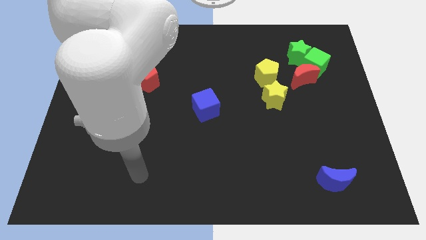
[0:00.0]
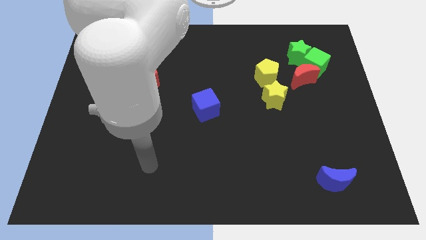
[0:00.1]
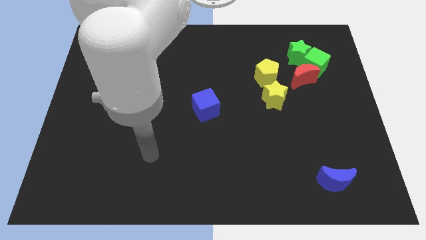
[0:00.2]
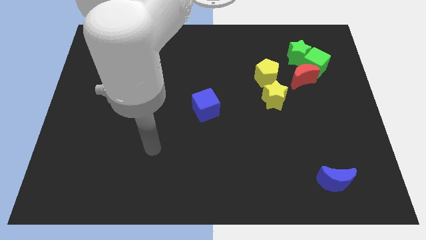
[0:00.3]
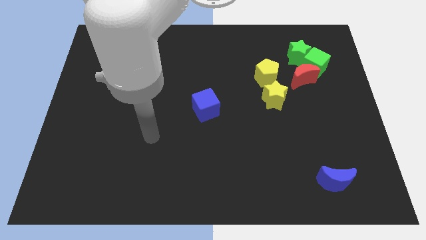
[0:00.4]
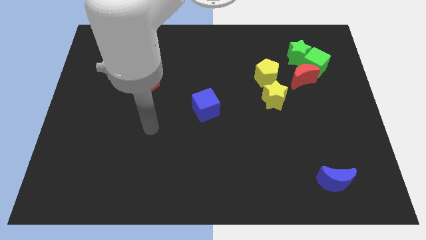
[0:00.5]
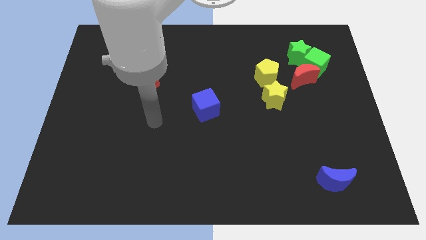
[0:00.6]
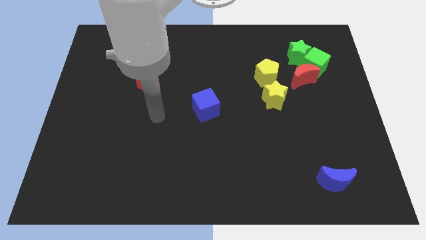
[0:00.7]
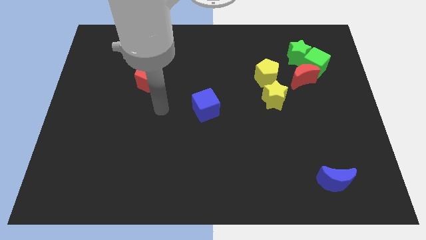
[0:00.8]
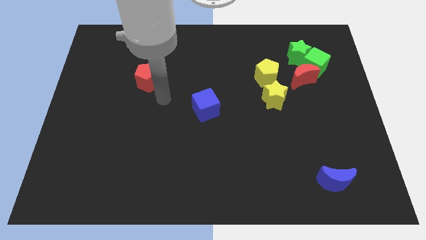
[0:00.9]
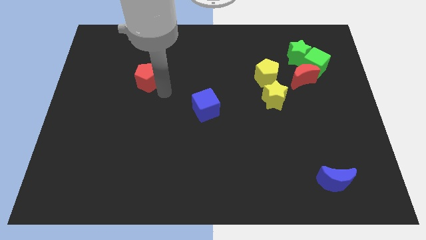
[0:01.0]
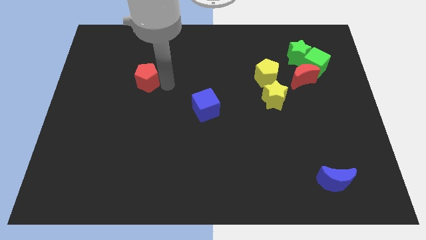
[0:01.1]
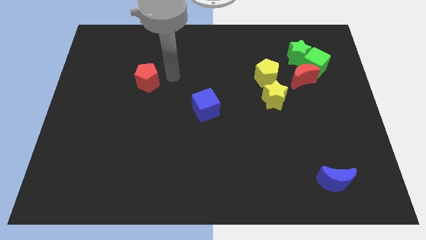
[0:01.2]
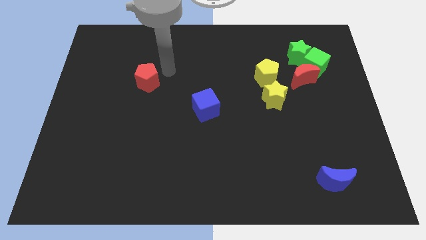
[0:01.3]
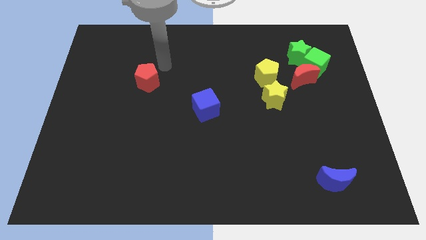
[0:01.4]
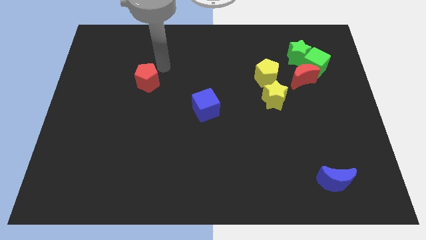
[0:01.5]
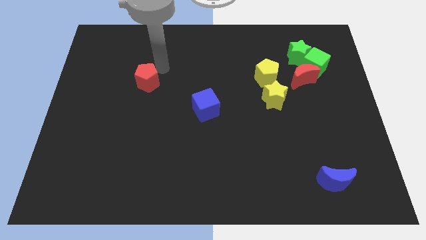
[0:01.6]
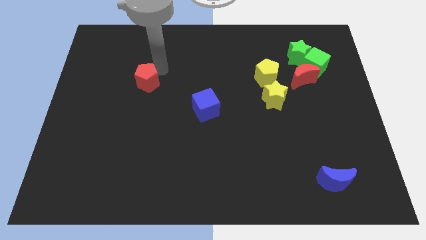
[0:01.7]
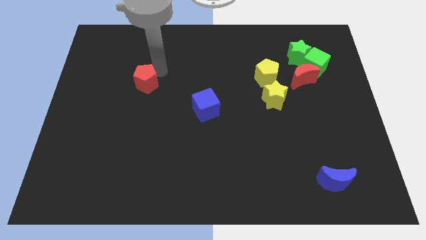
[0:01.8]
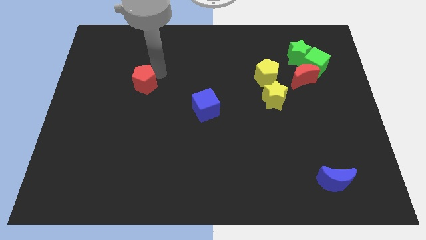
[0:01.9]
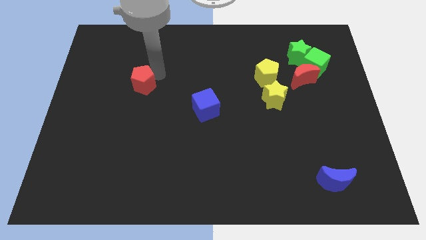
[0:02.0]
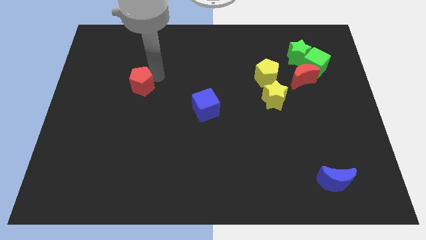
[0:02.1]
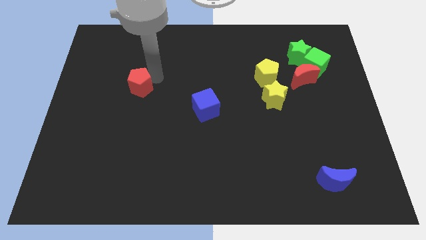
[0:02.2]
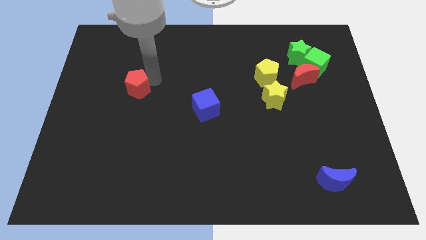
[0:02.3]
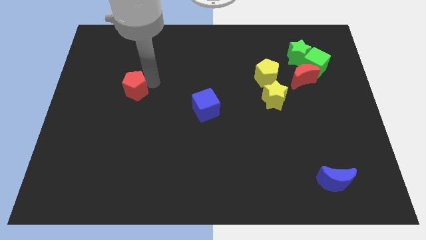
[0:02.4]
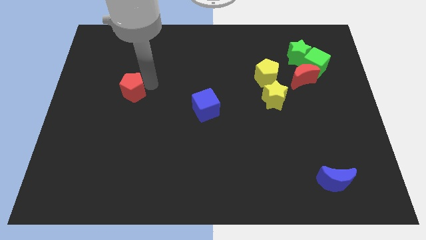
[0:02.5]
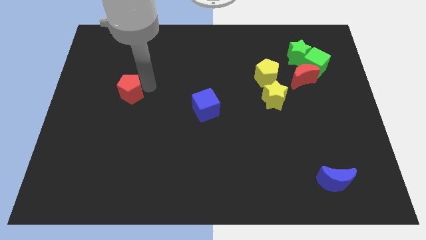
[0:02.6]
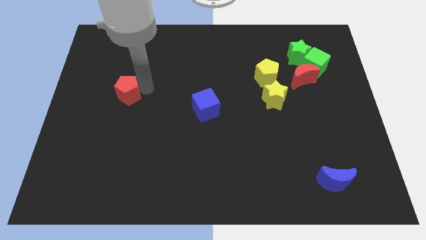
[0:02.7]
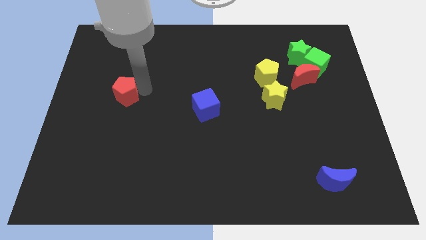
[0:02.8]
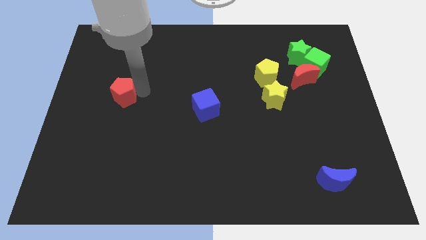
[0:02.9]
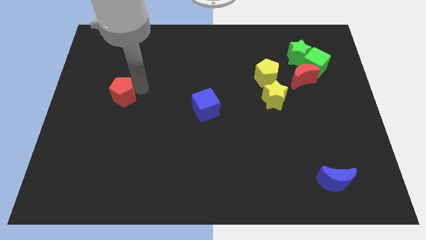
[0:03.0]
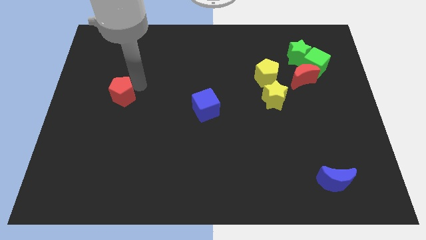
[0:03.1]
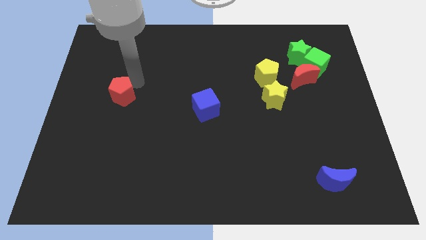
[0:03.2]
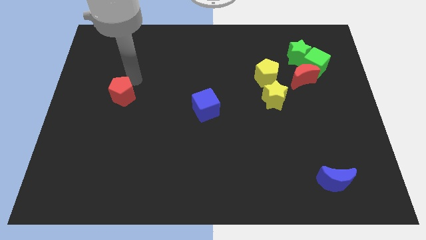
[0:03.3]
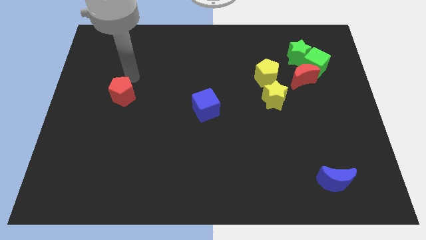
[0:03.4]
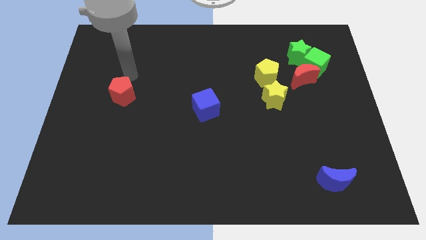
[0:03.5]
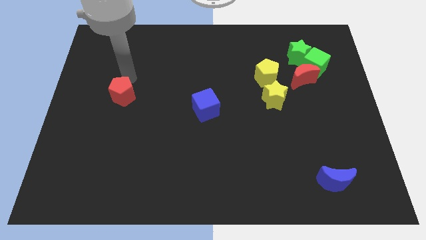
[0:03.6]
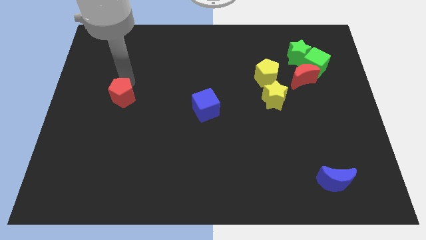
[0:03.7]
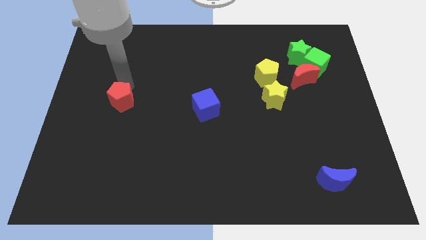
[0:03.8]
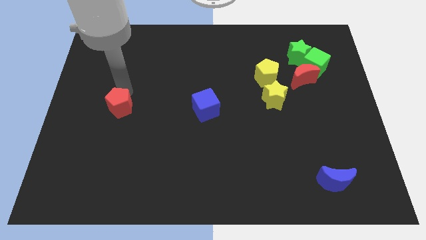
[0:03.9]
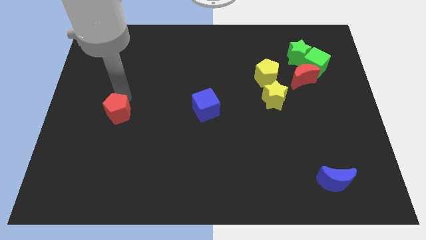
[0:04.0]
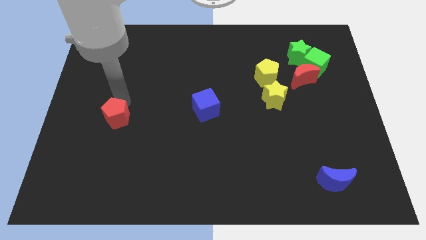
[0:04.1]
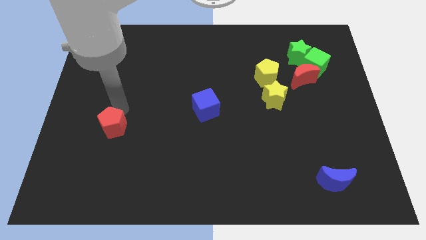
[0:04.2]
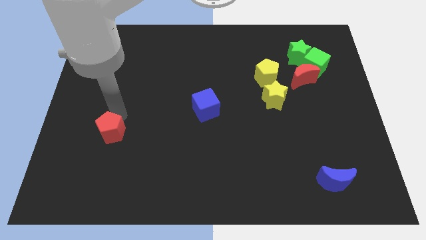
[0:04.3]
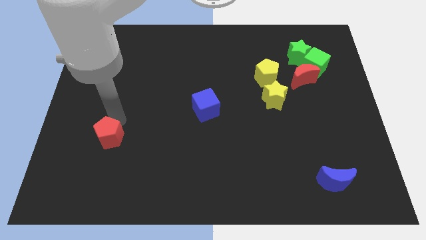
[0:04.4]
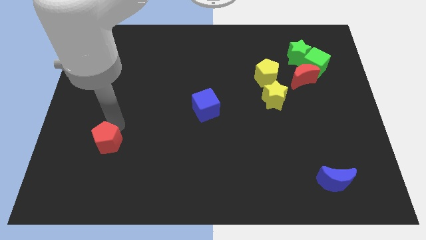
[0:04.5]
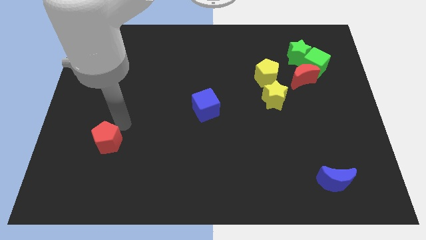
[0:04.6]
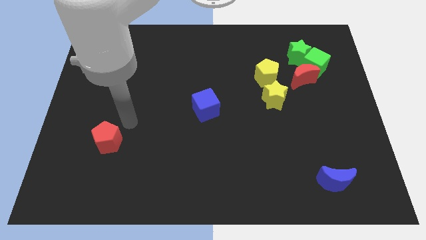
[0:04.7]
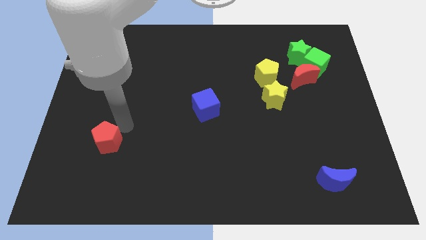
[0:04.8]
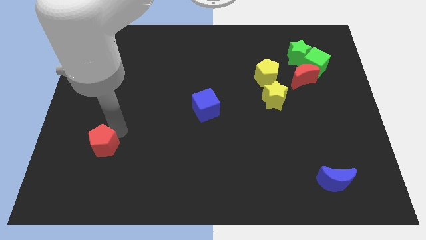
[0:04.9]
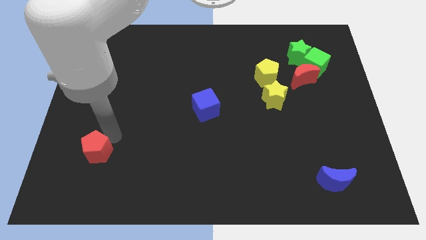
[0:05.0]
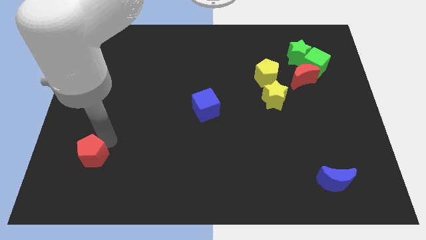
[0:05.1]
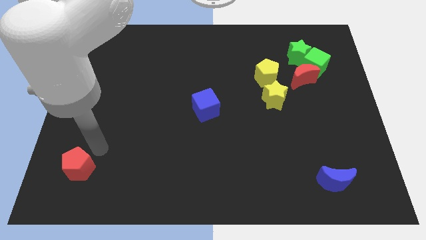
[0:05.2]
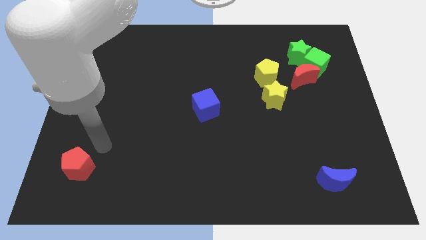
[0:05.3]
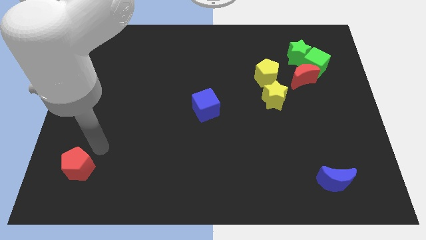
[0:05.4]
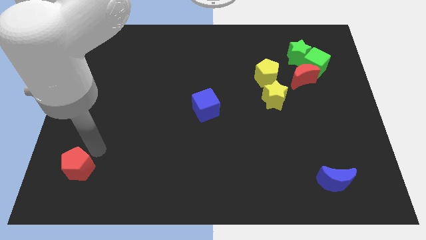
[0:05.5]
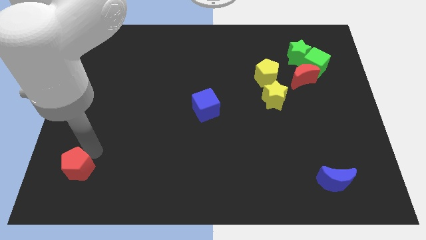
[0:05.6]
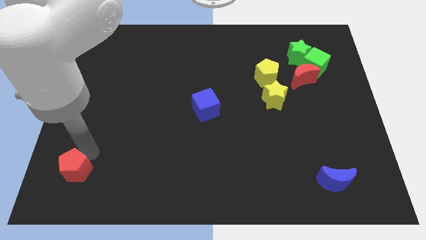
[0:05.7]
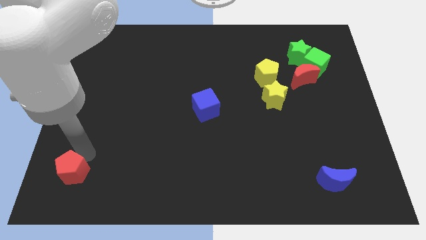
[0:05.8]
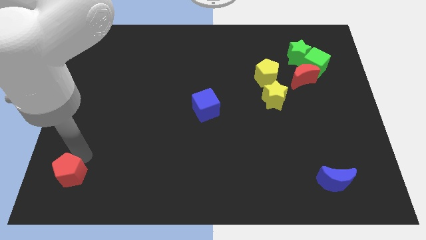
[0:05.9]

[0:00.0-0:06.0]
push the red pentagon to the lower left corner

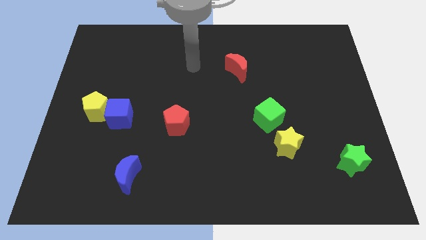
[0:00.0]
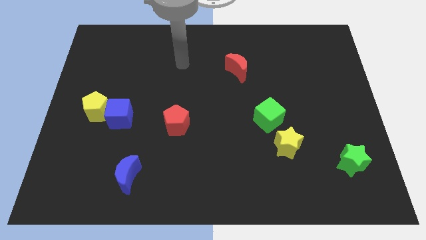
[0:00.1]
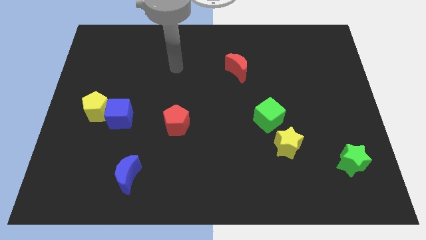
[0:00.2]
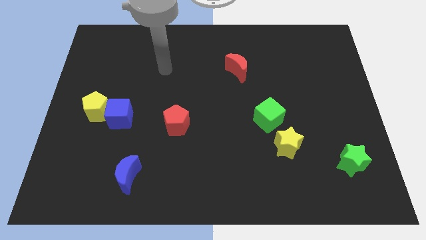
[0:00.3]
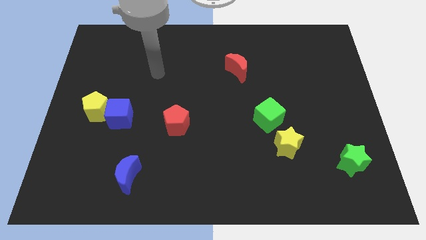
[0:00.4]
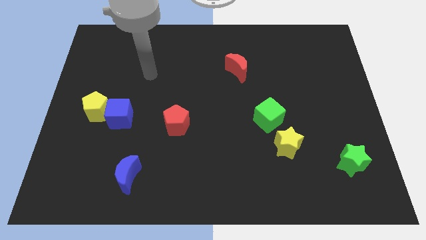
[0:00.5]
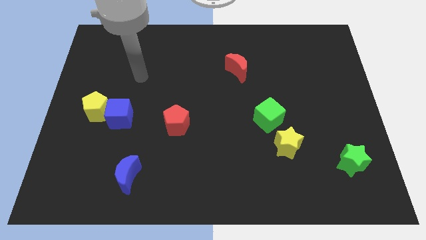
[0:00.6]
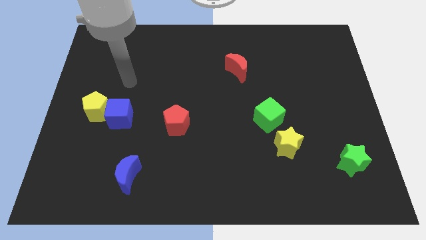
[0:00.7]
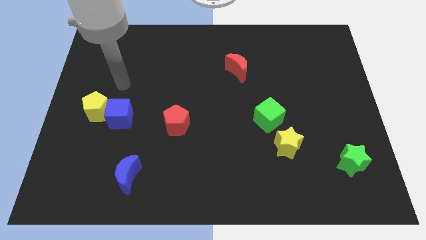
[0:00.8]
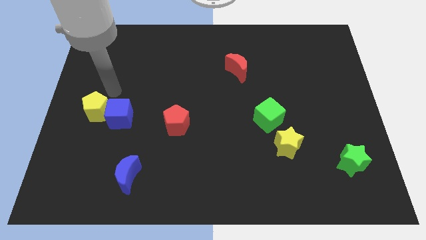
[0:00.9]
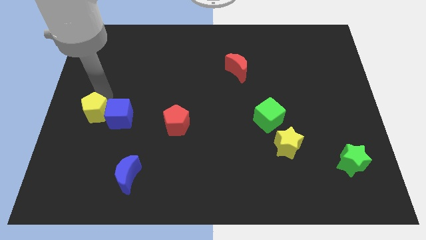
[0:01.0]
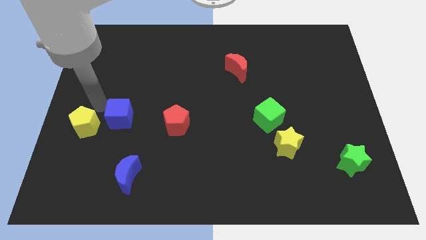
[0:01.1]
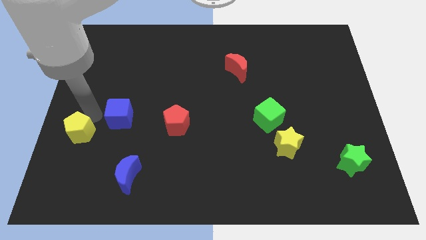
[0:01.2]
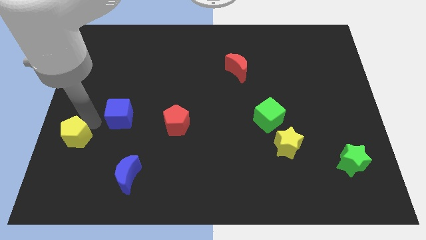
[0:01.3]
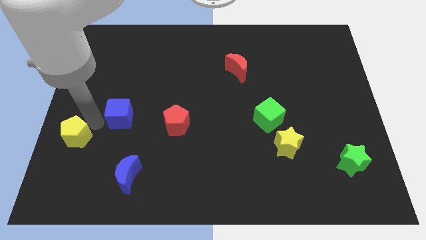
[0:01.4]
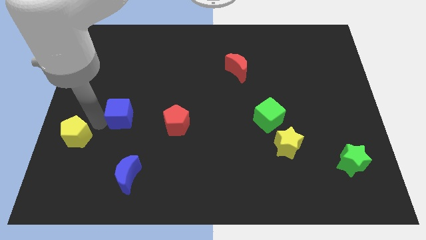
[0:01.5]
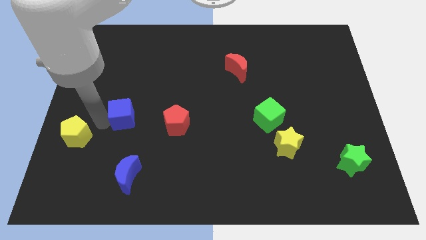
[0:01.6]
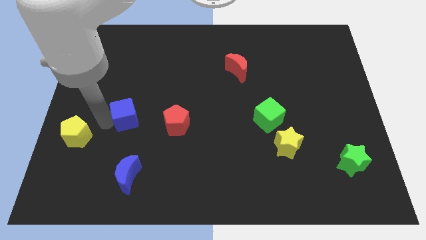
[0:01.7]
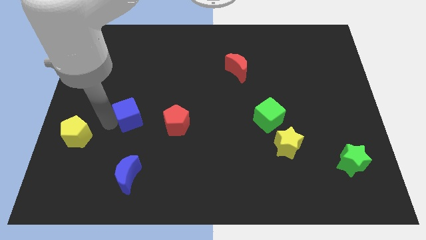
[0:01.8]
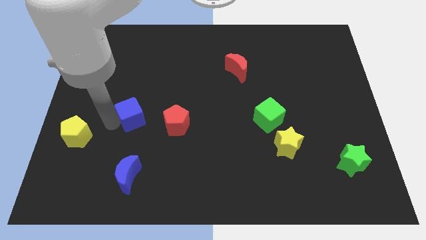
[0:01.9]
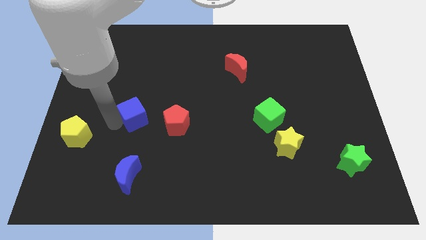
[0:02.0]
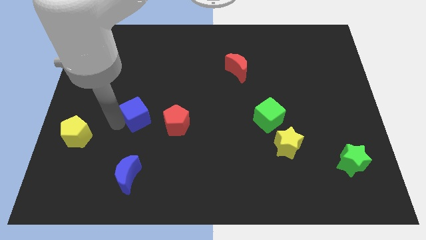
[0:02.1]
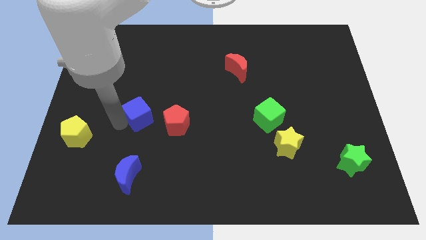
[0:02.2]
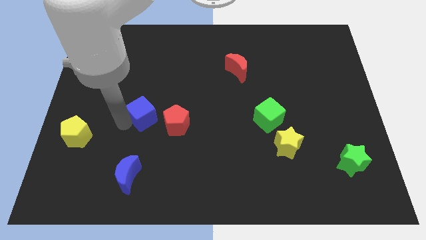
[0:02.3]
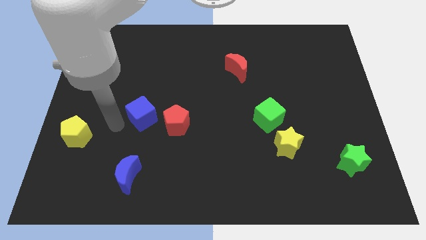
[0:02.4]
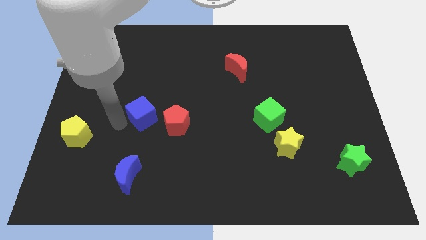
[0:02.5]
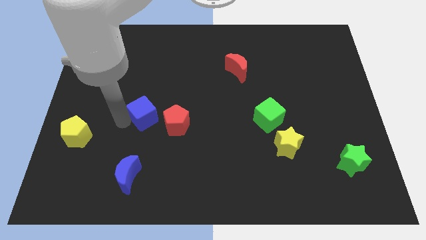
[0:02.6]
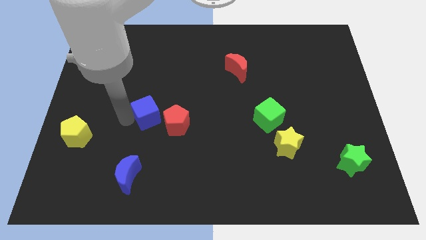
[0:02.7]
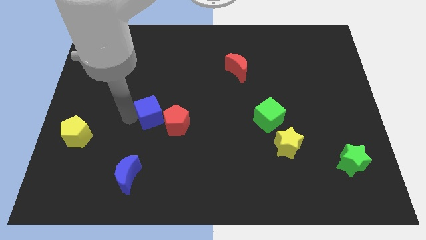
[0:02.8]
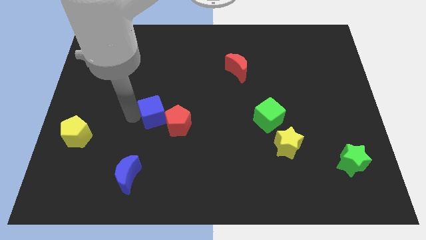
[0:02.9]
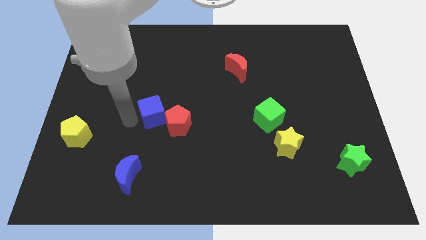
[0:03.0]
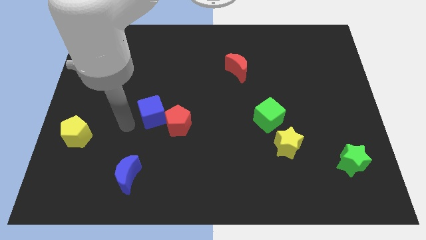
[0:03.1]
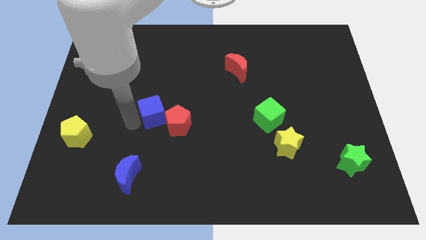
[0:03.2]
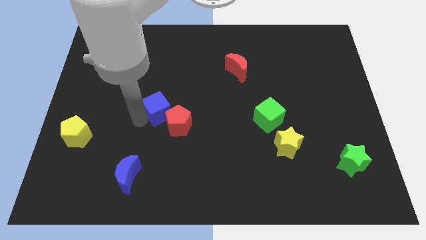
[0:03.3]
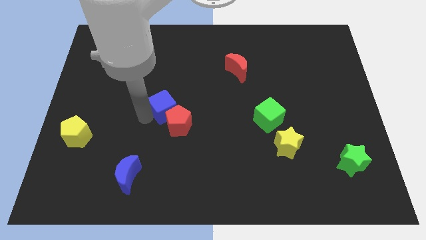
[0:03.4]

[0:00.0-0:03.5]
push the blue cube to the center of the board
